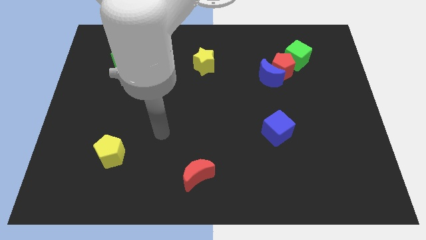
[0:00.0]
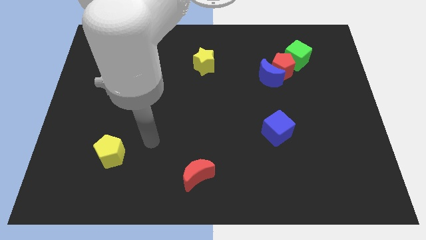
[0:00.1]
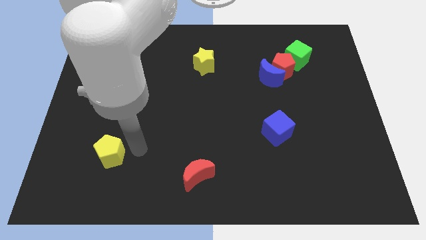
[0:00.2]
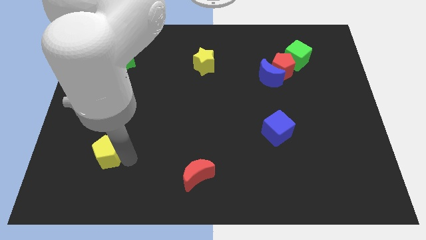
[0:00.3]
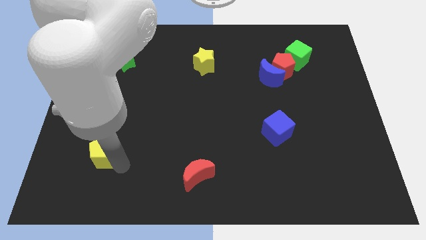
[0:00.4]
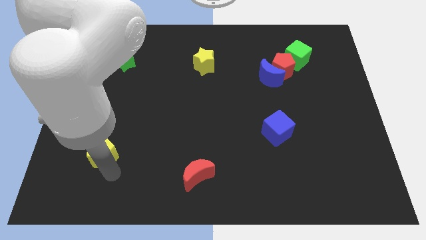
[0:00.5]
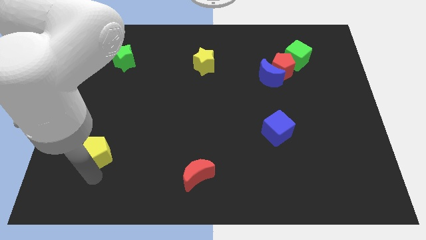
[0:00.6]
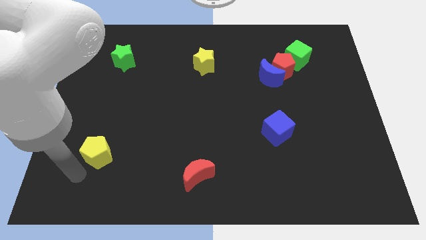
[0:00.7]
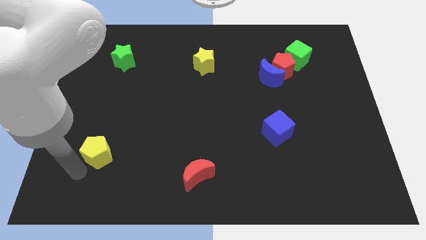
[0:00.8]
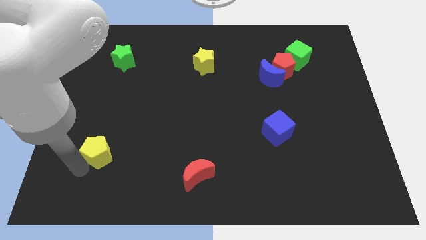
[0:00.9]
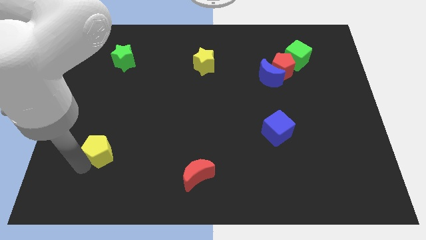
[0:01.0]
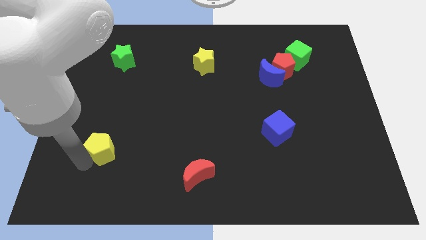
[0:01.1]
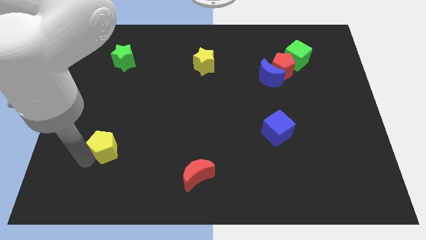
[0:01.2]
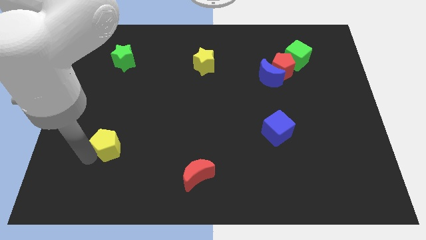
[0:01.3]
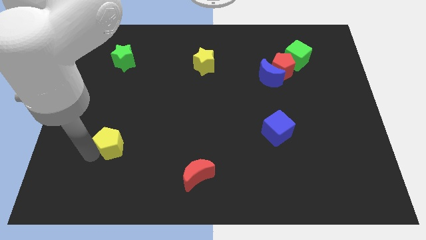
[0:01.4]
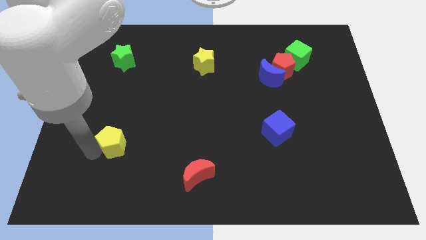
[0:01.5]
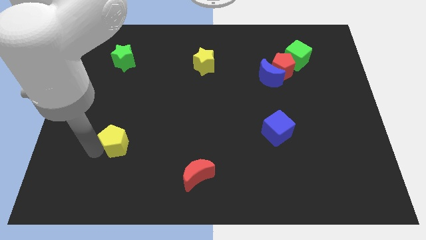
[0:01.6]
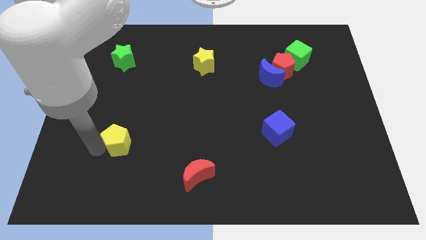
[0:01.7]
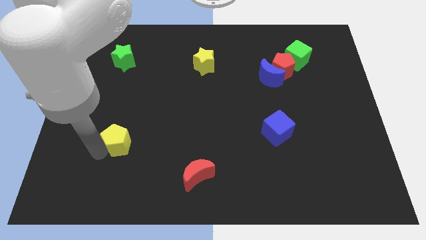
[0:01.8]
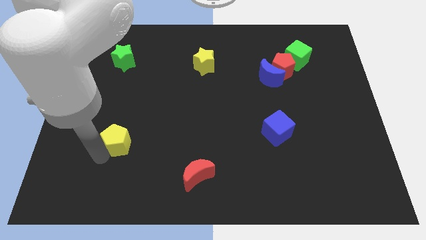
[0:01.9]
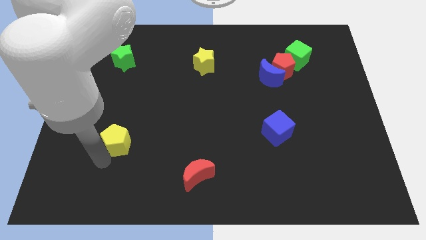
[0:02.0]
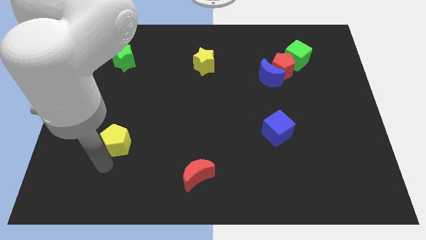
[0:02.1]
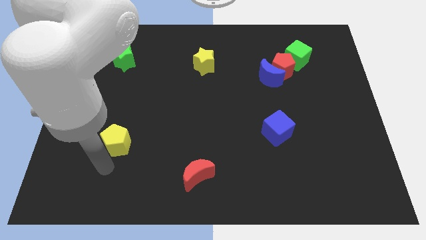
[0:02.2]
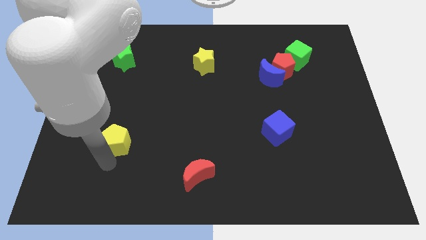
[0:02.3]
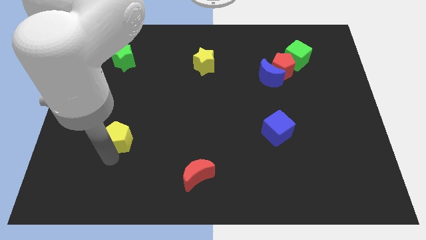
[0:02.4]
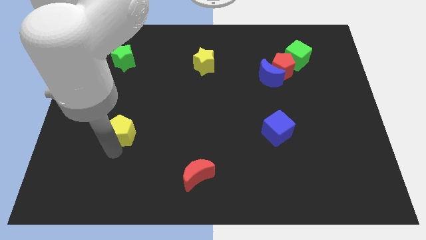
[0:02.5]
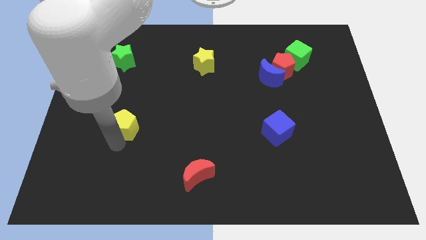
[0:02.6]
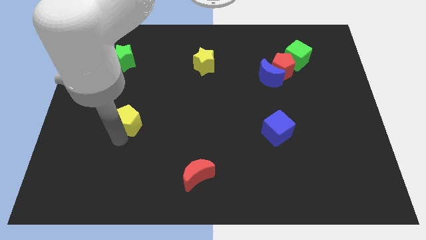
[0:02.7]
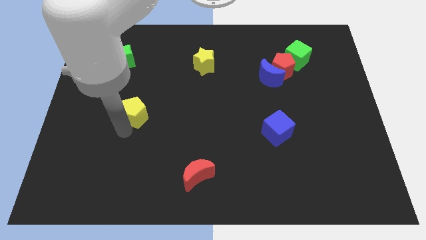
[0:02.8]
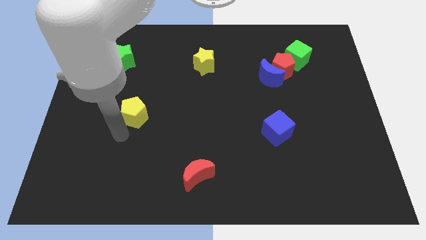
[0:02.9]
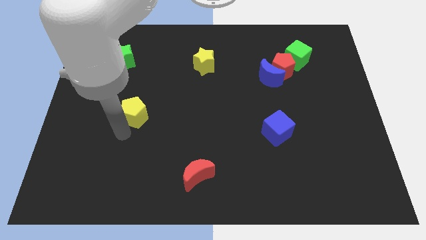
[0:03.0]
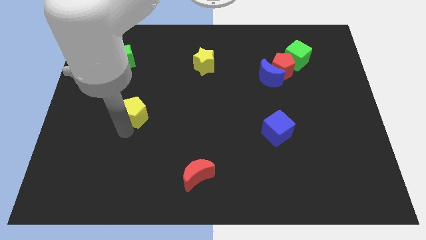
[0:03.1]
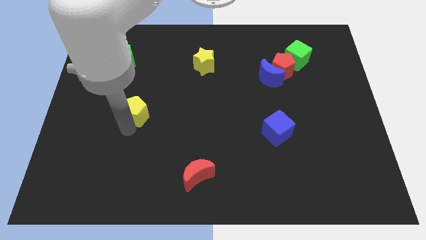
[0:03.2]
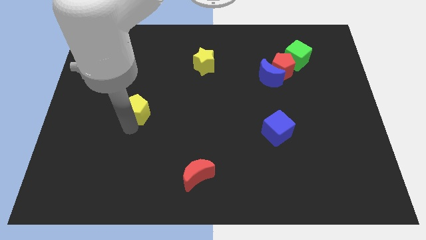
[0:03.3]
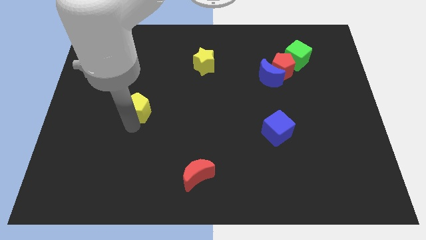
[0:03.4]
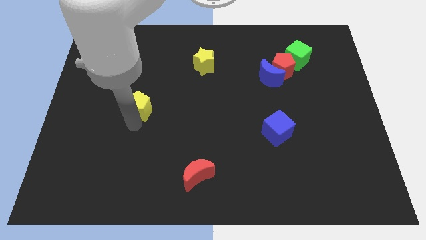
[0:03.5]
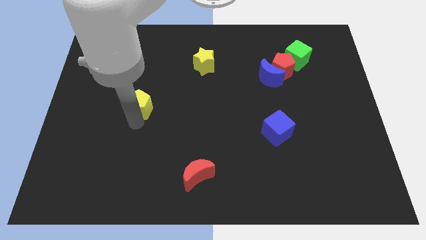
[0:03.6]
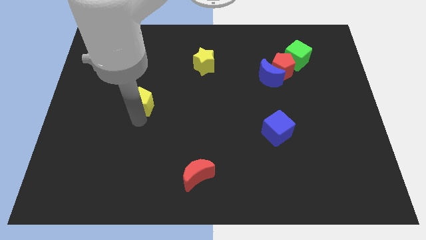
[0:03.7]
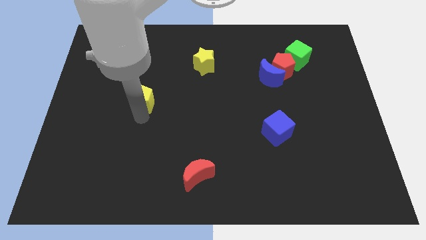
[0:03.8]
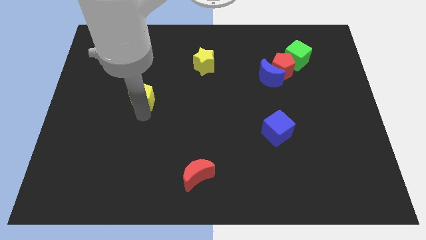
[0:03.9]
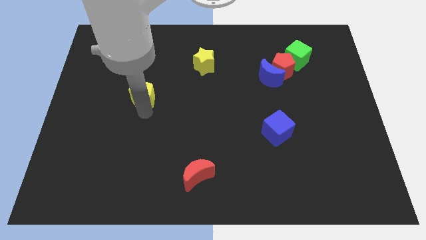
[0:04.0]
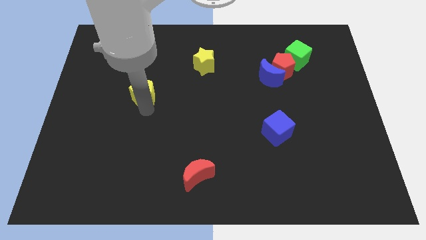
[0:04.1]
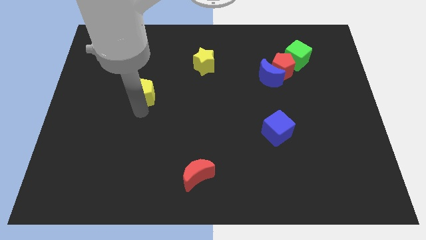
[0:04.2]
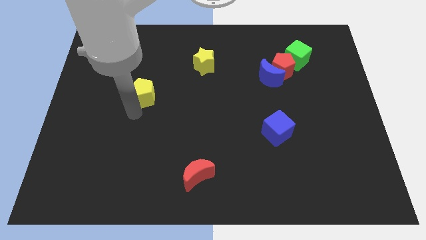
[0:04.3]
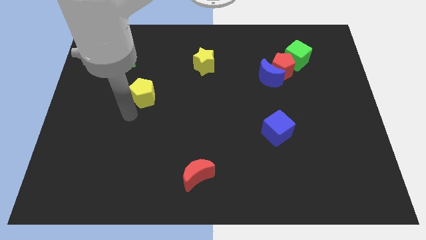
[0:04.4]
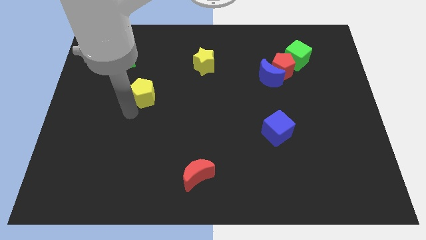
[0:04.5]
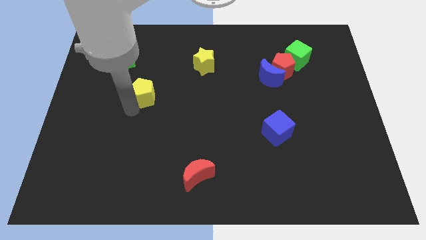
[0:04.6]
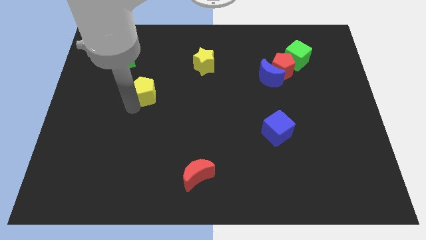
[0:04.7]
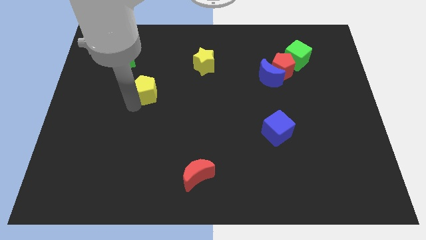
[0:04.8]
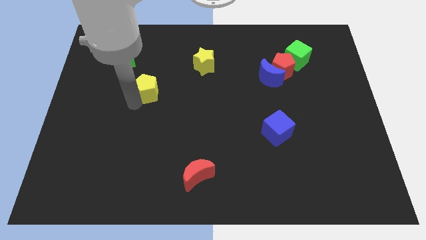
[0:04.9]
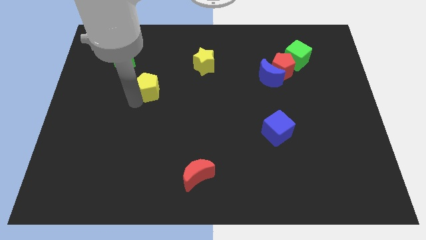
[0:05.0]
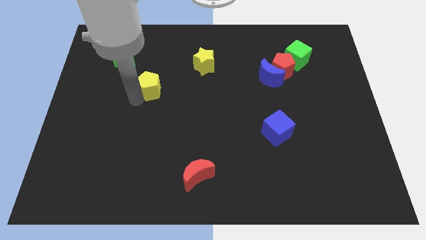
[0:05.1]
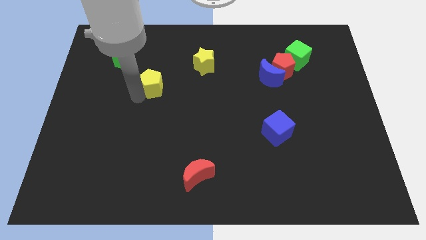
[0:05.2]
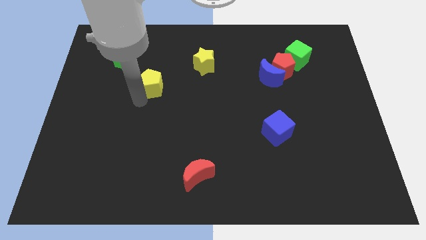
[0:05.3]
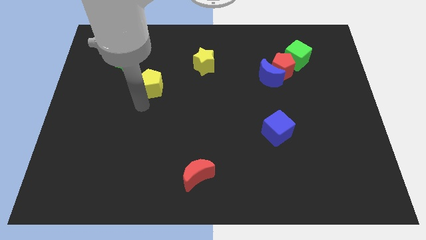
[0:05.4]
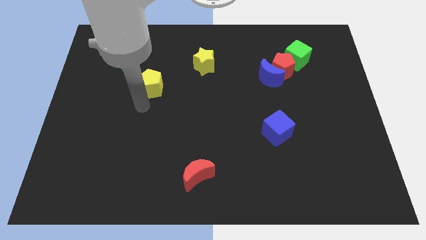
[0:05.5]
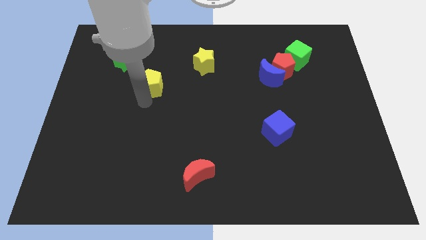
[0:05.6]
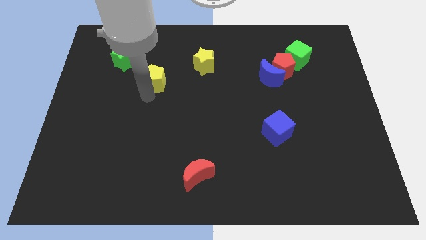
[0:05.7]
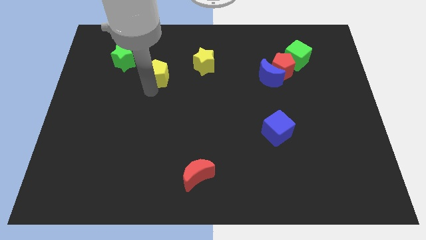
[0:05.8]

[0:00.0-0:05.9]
move the yellow pentagon to the left of the yellow star

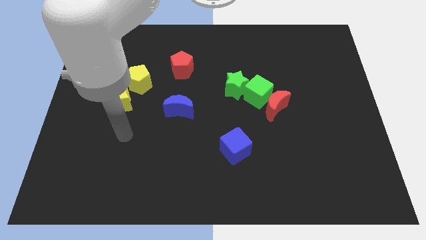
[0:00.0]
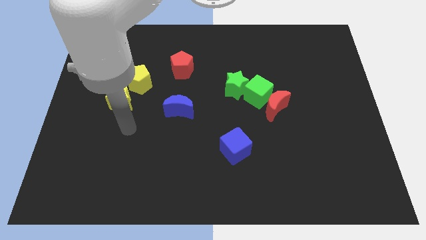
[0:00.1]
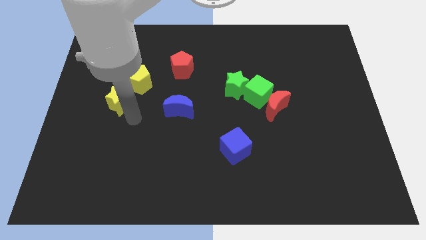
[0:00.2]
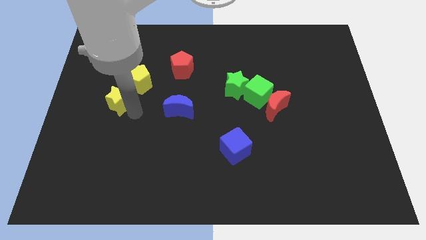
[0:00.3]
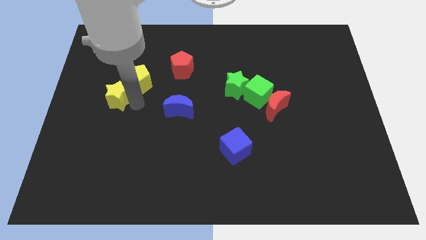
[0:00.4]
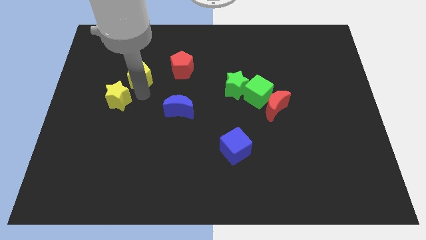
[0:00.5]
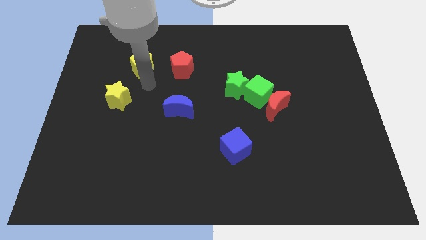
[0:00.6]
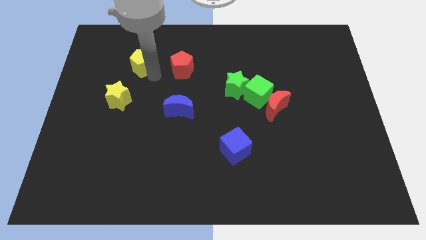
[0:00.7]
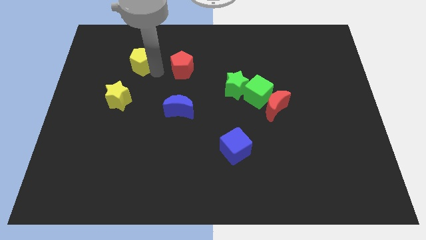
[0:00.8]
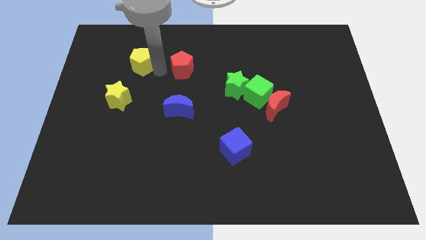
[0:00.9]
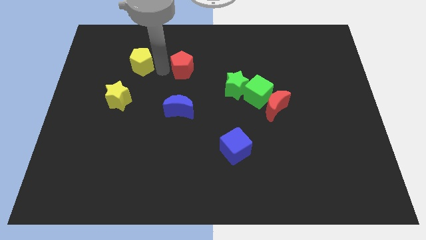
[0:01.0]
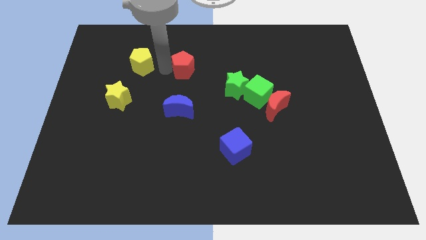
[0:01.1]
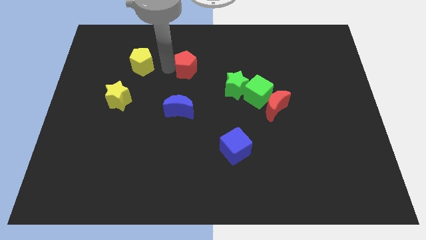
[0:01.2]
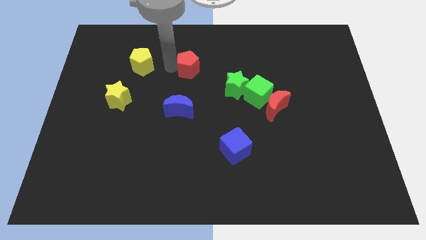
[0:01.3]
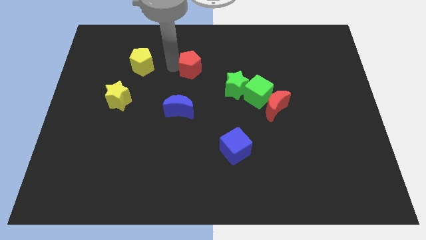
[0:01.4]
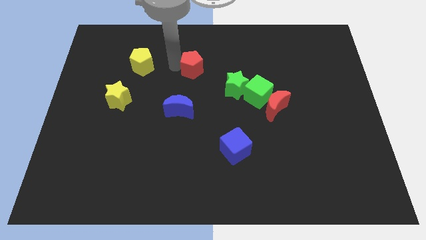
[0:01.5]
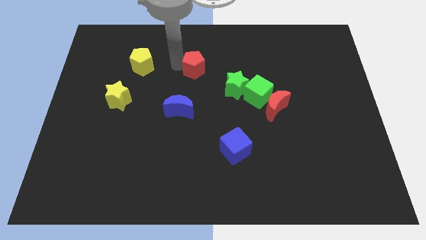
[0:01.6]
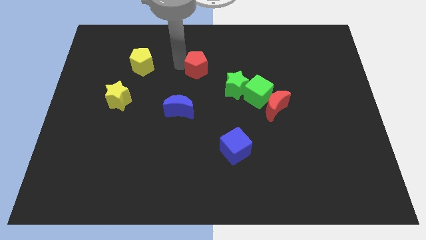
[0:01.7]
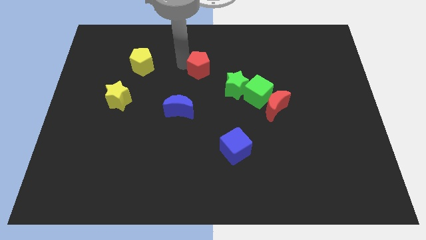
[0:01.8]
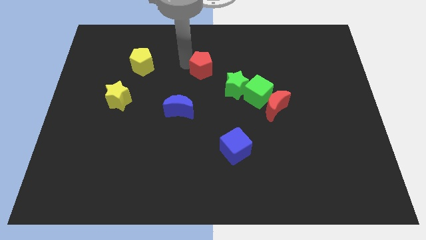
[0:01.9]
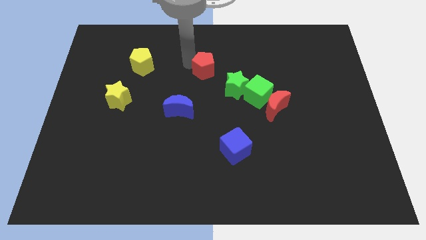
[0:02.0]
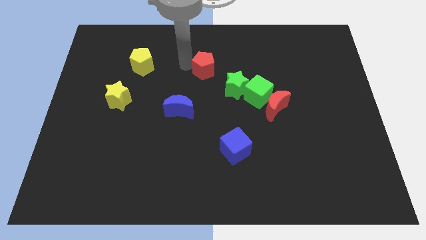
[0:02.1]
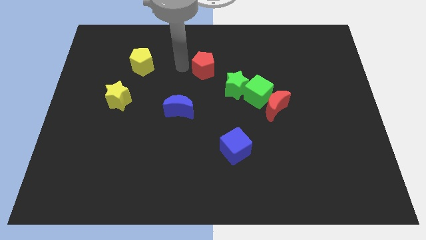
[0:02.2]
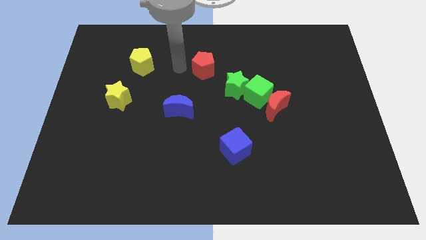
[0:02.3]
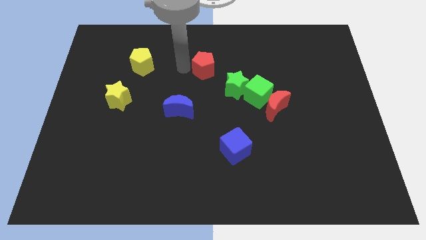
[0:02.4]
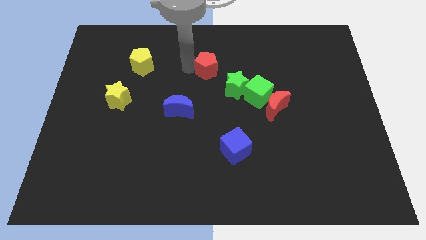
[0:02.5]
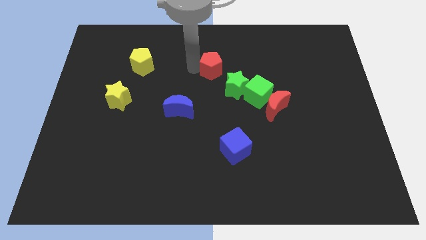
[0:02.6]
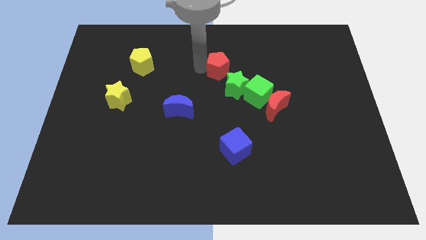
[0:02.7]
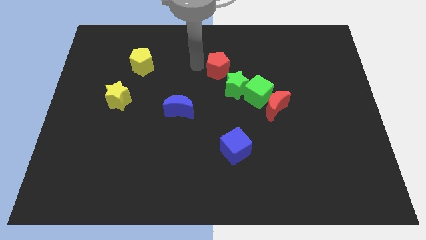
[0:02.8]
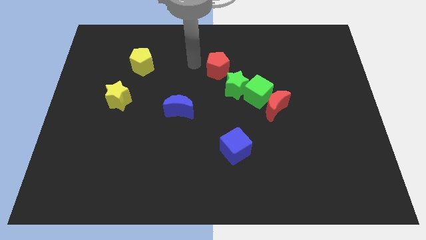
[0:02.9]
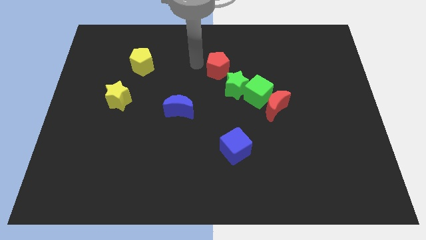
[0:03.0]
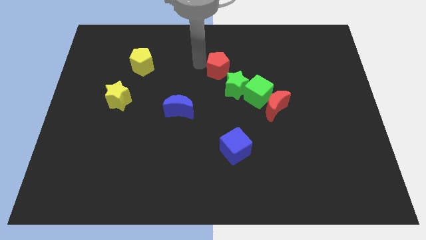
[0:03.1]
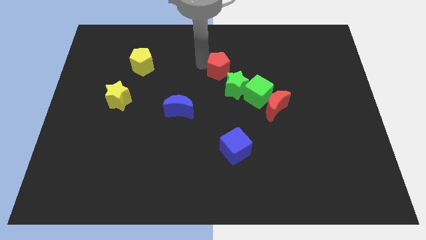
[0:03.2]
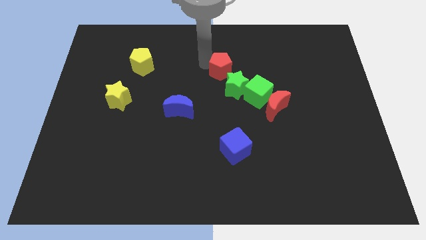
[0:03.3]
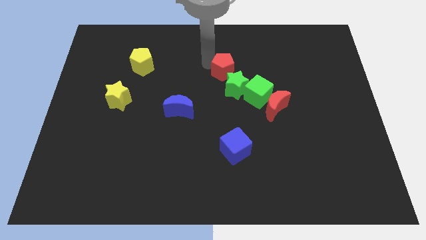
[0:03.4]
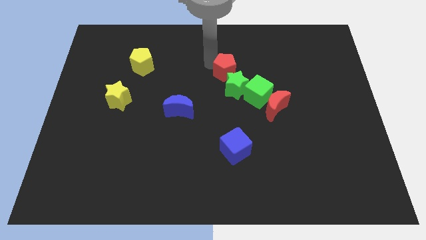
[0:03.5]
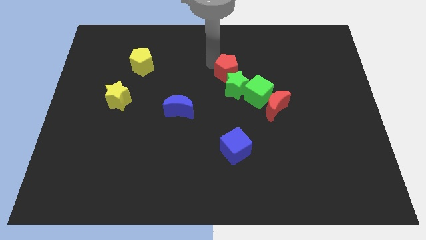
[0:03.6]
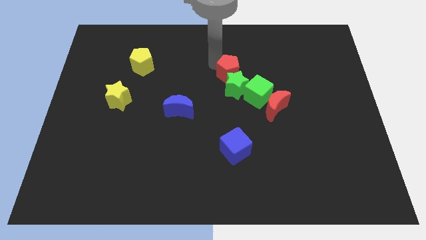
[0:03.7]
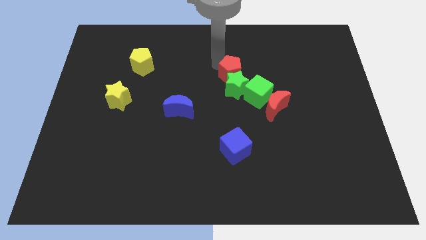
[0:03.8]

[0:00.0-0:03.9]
move the red pentagon to the top right of the green star
